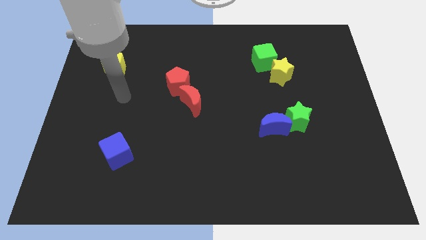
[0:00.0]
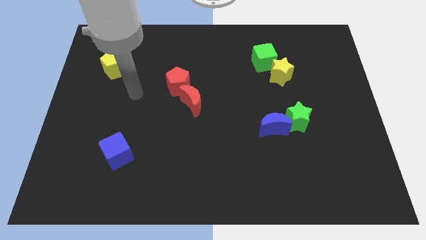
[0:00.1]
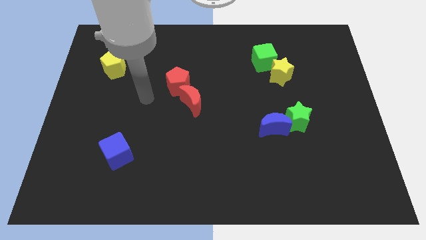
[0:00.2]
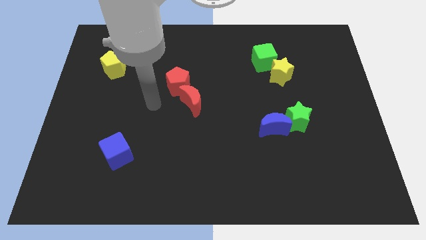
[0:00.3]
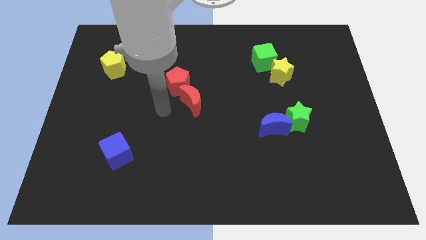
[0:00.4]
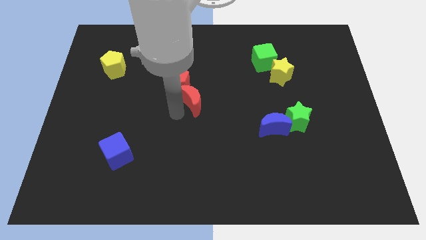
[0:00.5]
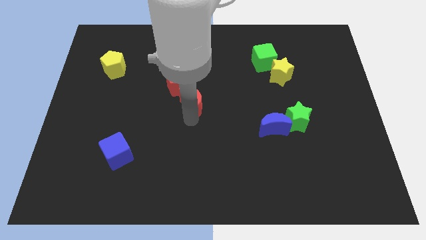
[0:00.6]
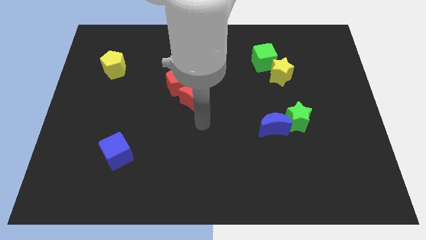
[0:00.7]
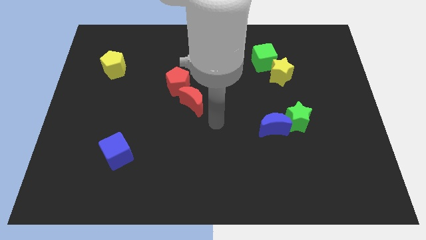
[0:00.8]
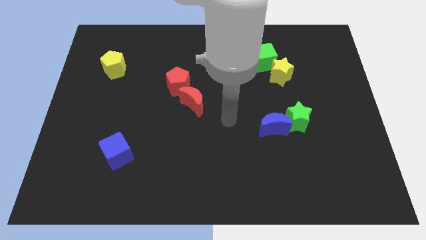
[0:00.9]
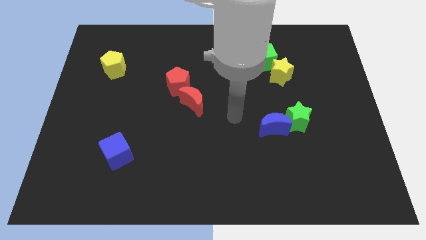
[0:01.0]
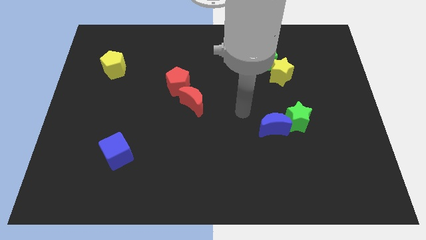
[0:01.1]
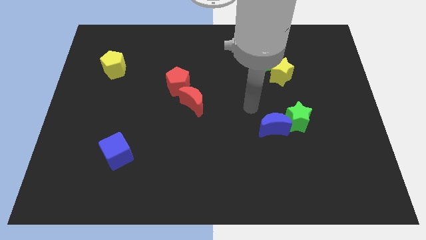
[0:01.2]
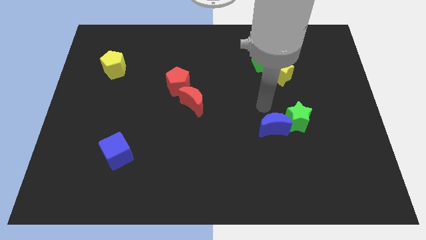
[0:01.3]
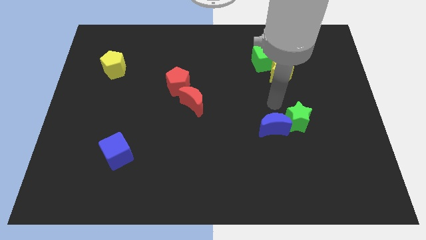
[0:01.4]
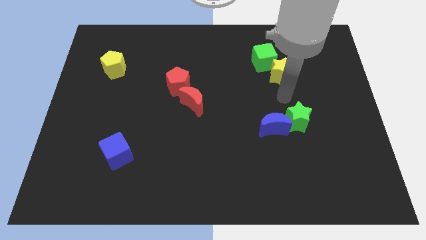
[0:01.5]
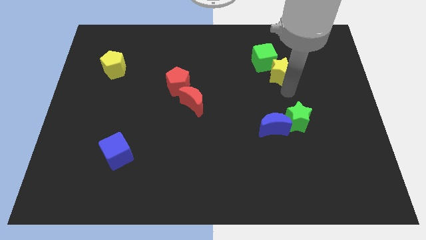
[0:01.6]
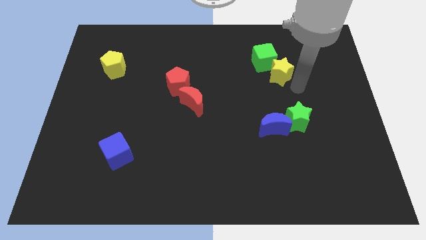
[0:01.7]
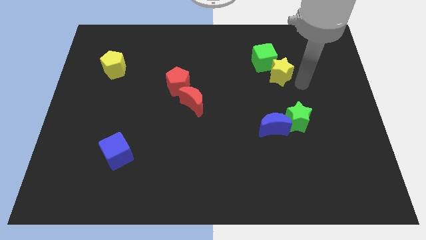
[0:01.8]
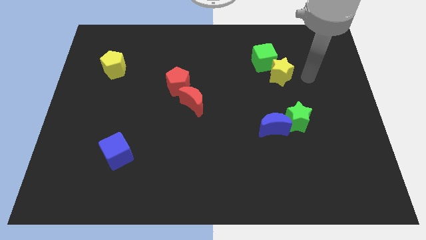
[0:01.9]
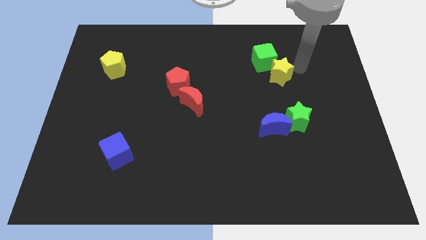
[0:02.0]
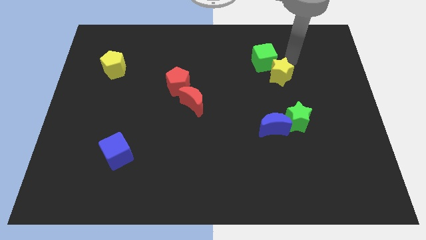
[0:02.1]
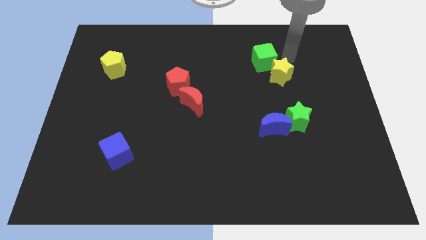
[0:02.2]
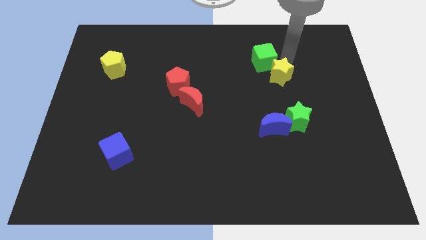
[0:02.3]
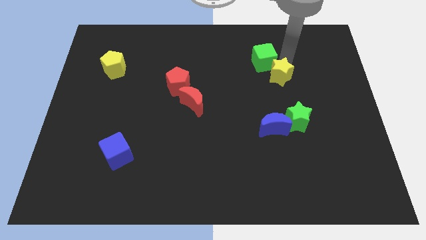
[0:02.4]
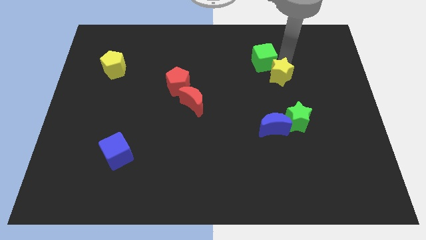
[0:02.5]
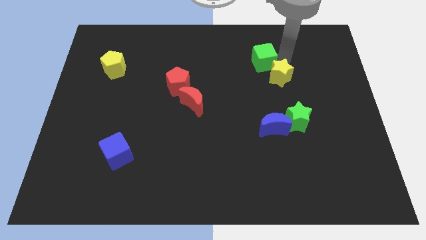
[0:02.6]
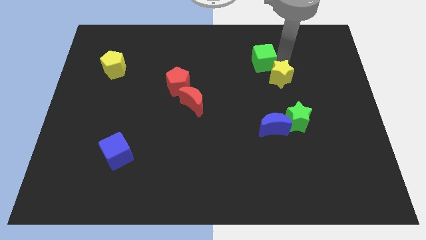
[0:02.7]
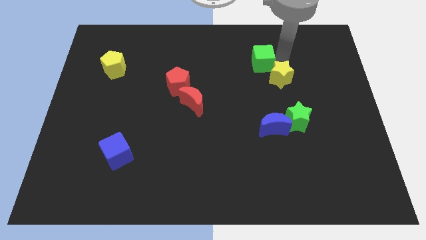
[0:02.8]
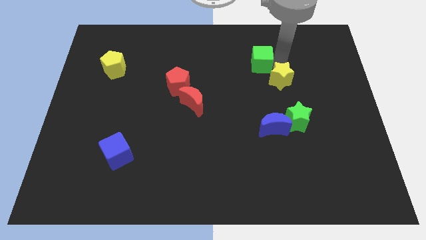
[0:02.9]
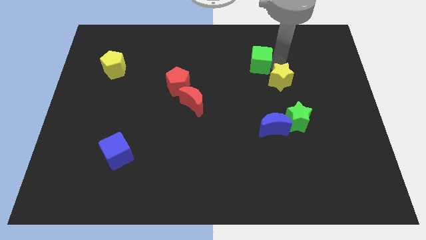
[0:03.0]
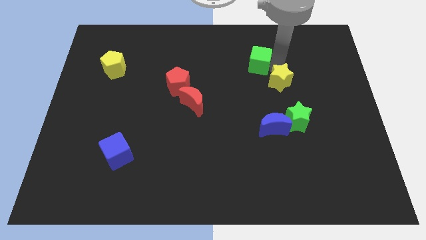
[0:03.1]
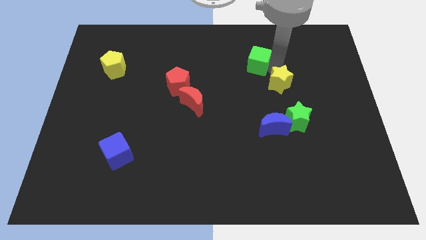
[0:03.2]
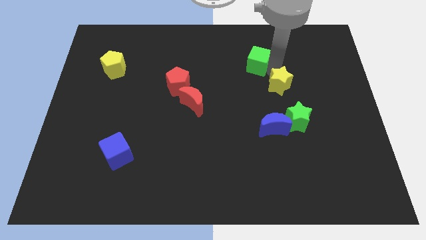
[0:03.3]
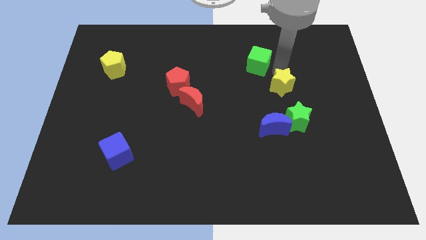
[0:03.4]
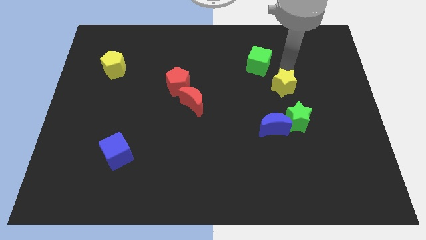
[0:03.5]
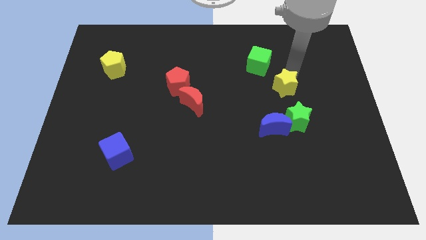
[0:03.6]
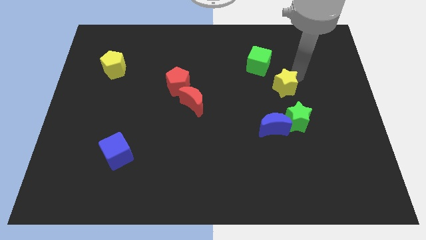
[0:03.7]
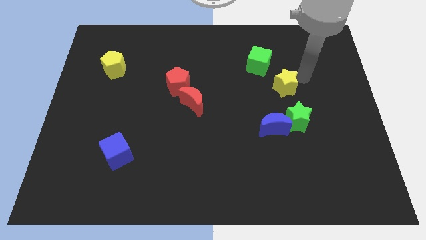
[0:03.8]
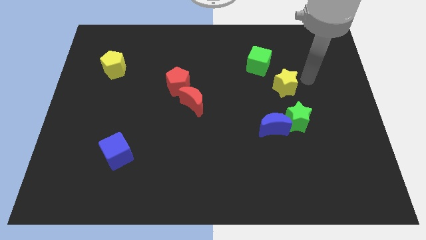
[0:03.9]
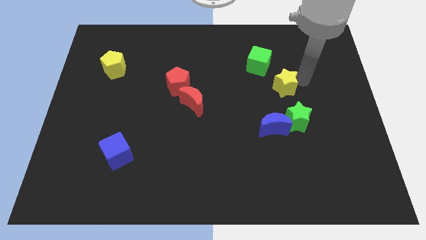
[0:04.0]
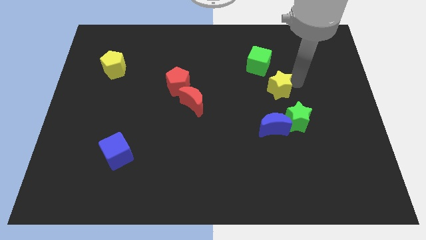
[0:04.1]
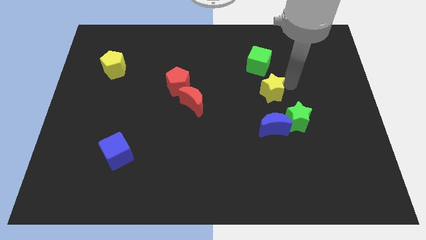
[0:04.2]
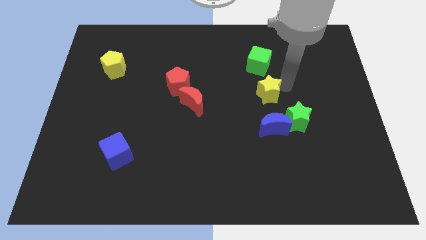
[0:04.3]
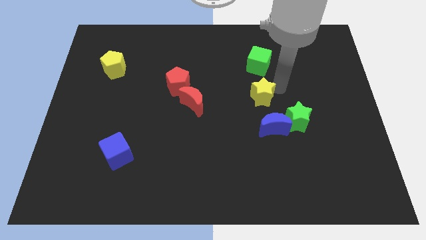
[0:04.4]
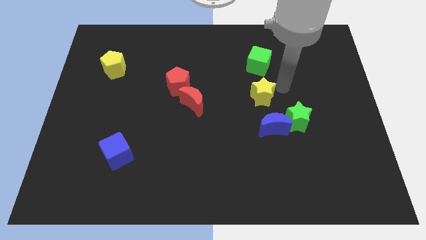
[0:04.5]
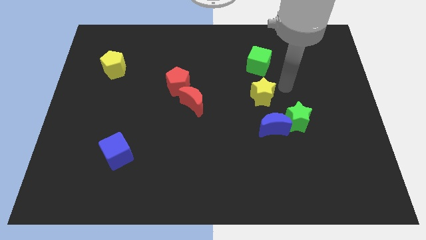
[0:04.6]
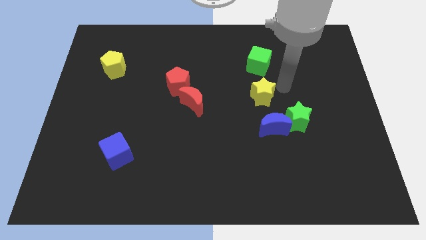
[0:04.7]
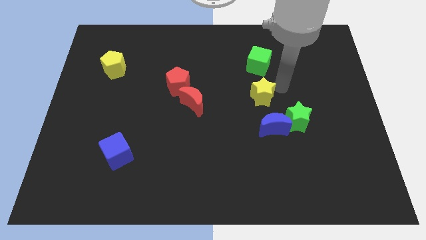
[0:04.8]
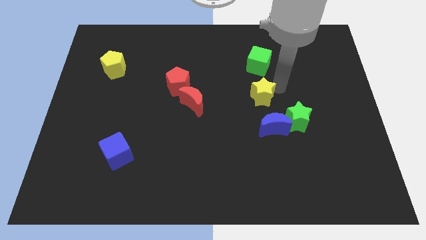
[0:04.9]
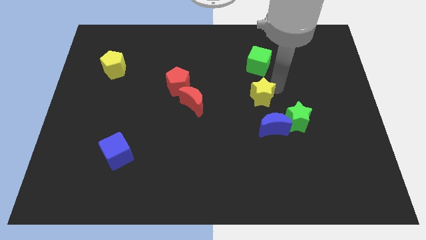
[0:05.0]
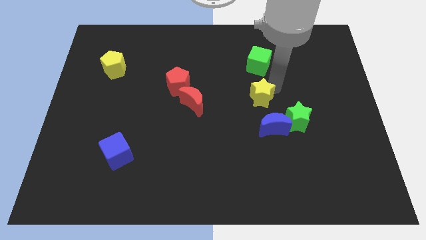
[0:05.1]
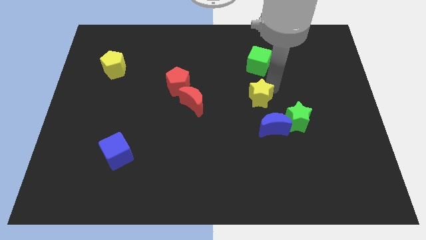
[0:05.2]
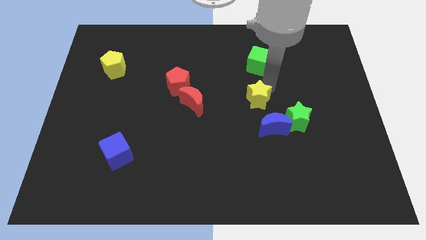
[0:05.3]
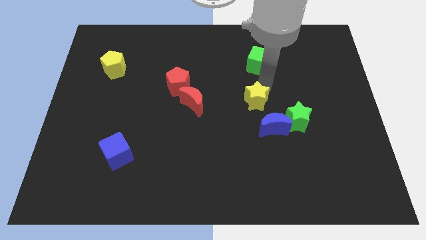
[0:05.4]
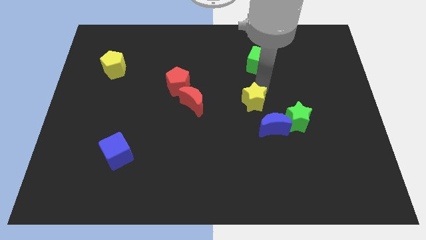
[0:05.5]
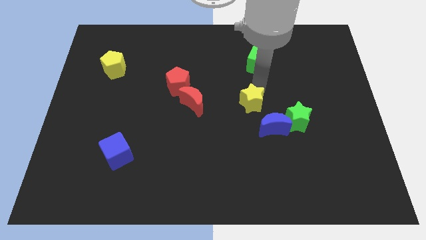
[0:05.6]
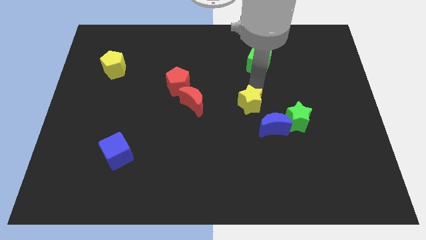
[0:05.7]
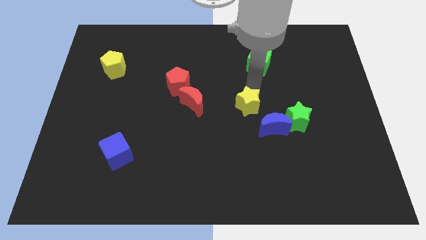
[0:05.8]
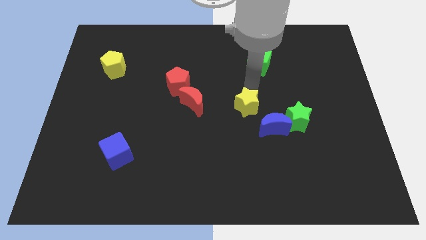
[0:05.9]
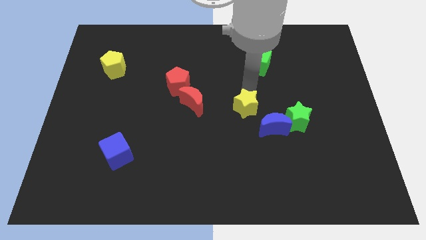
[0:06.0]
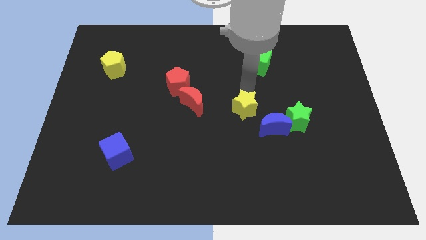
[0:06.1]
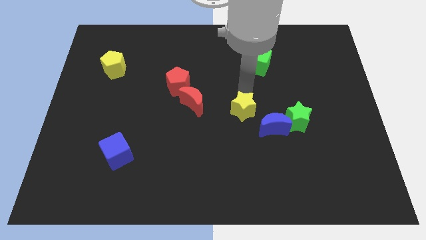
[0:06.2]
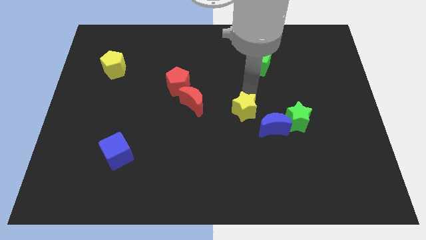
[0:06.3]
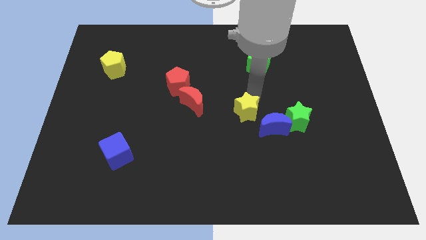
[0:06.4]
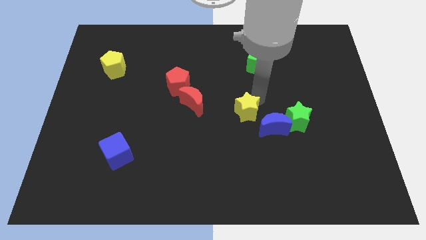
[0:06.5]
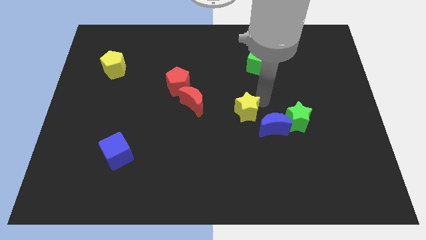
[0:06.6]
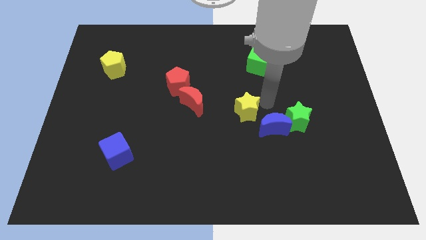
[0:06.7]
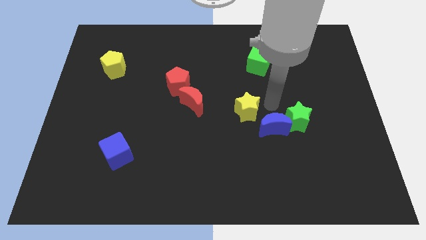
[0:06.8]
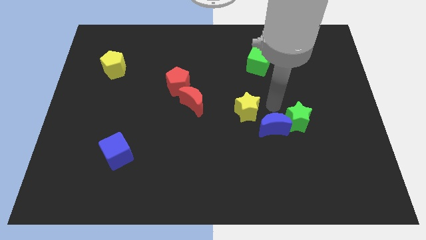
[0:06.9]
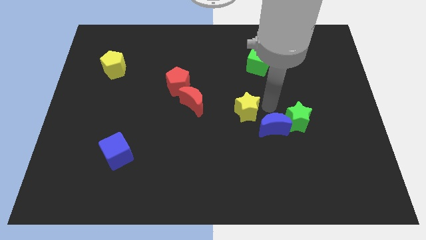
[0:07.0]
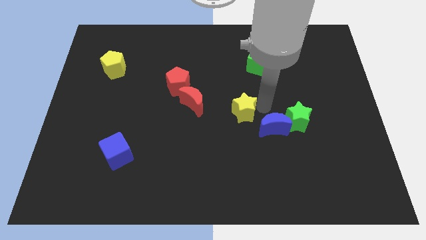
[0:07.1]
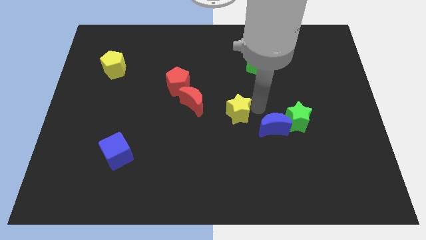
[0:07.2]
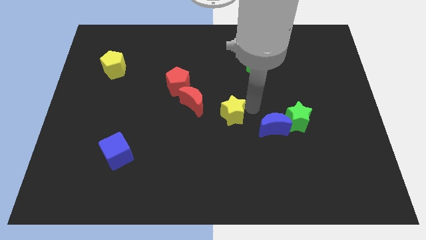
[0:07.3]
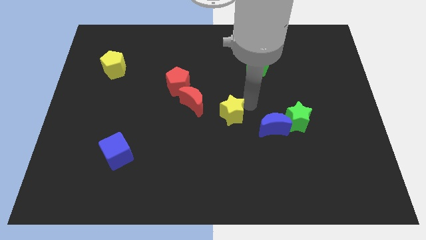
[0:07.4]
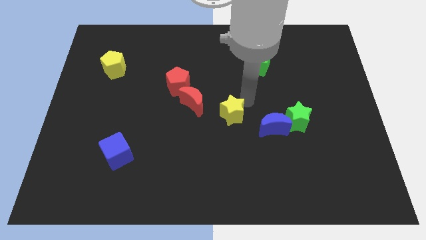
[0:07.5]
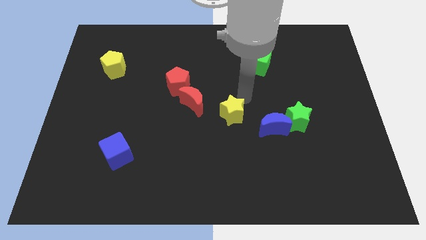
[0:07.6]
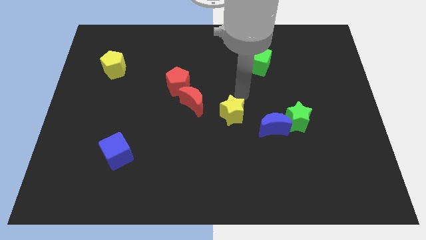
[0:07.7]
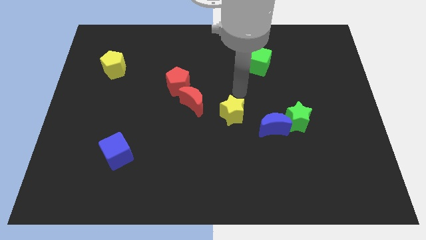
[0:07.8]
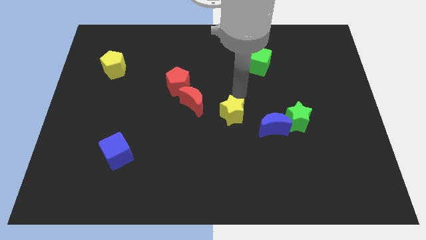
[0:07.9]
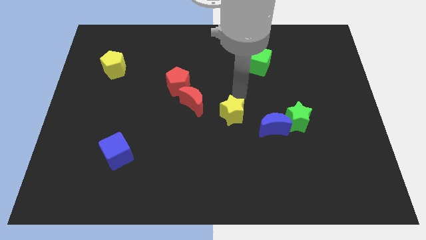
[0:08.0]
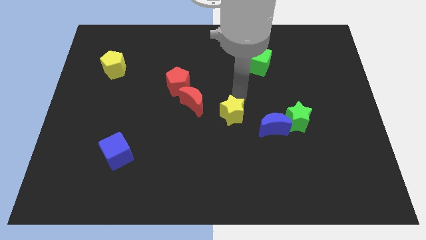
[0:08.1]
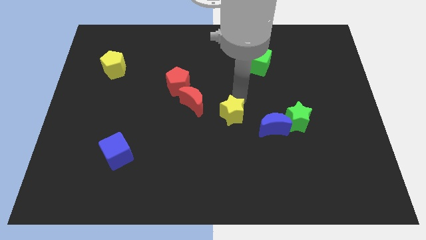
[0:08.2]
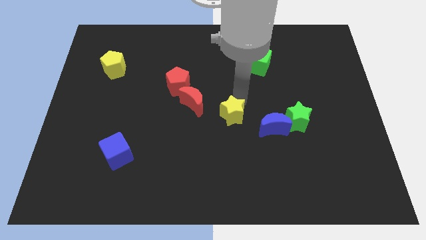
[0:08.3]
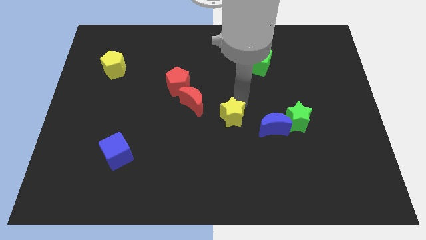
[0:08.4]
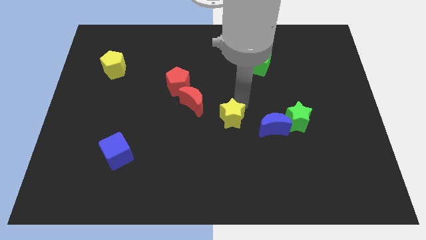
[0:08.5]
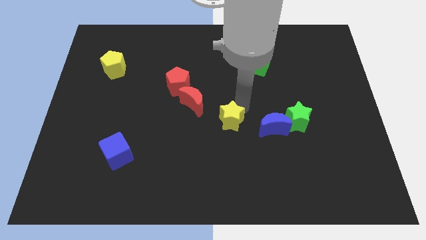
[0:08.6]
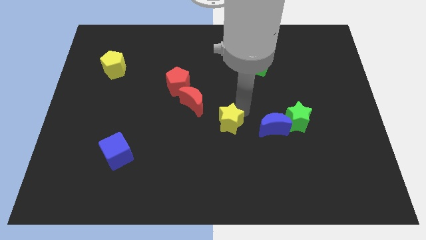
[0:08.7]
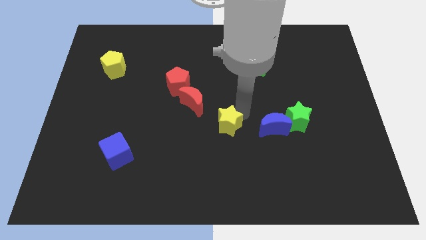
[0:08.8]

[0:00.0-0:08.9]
push the yellow star downwards and left diagonally
